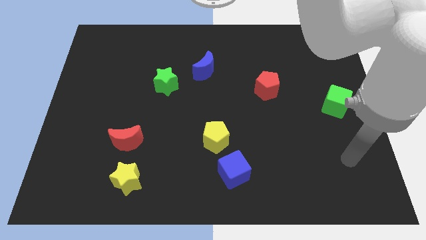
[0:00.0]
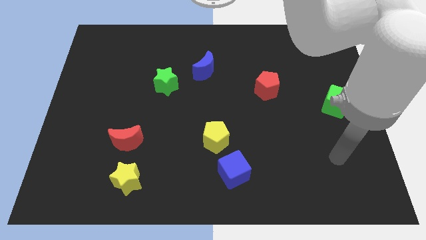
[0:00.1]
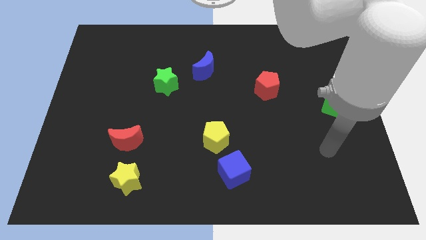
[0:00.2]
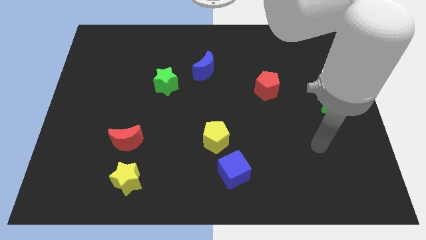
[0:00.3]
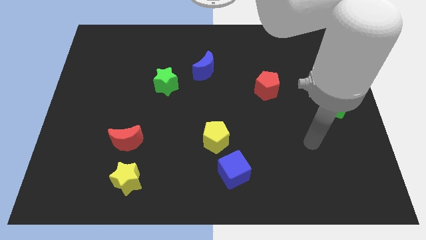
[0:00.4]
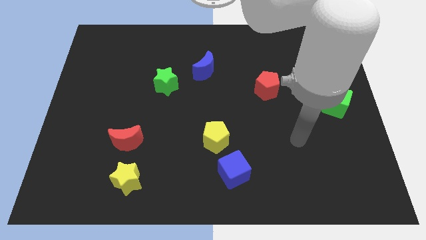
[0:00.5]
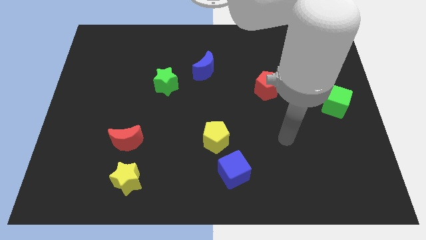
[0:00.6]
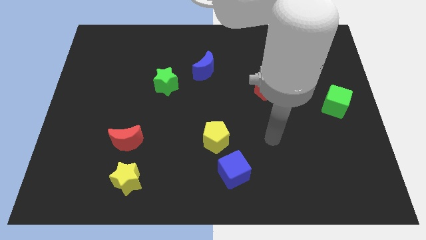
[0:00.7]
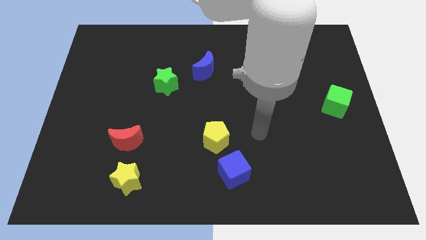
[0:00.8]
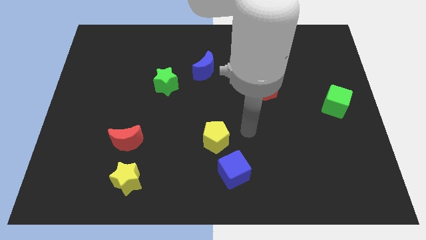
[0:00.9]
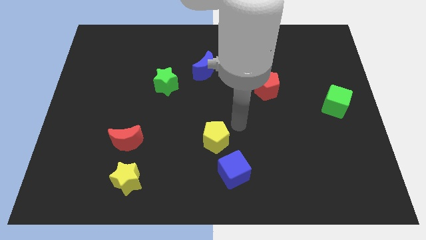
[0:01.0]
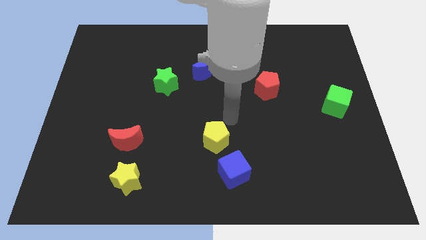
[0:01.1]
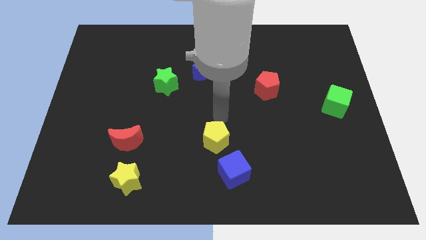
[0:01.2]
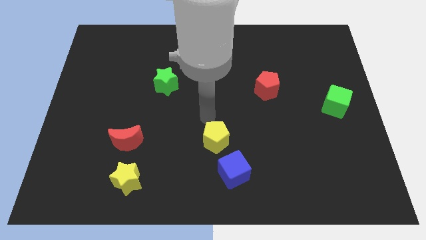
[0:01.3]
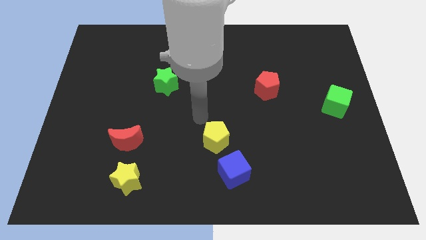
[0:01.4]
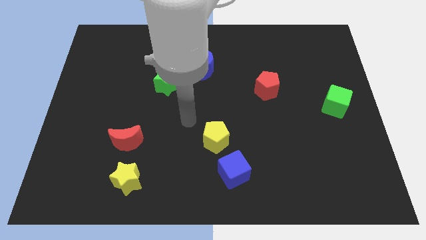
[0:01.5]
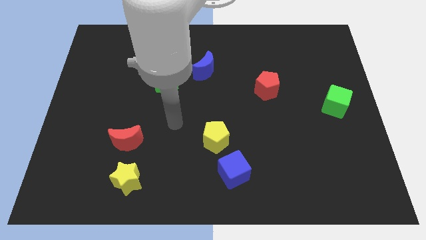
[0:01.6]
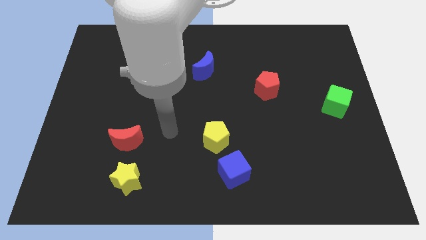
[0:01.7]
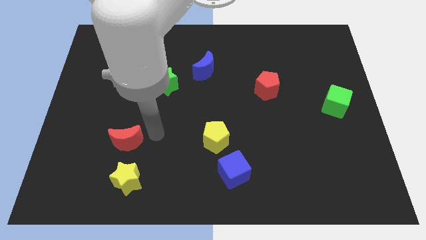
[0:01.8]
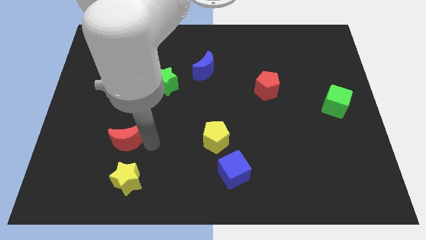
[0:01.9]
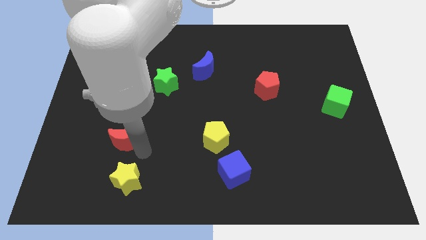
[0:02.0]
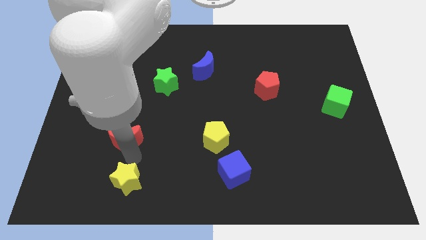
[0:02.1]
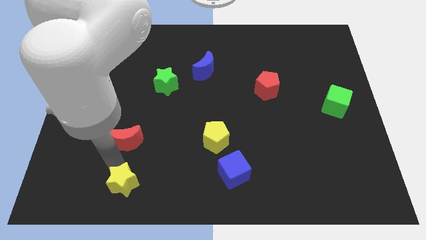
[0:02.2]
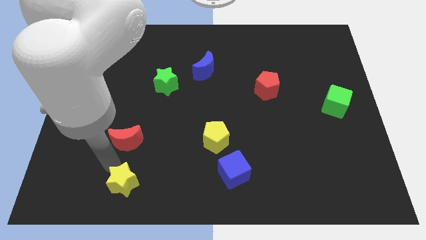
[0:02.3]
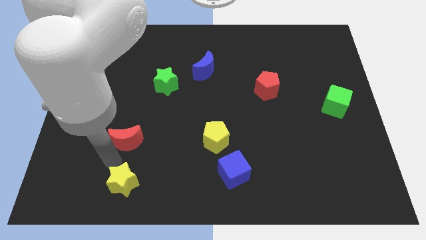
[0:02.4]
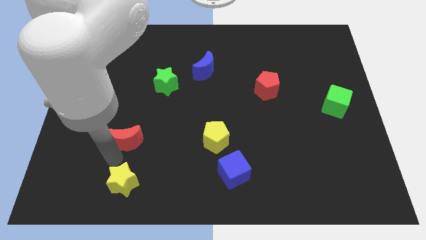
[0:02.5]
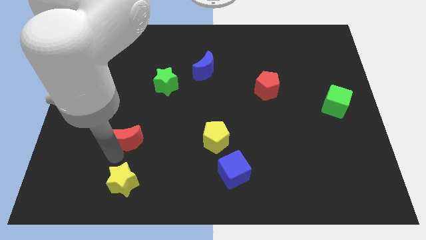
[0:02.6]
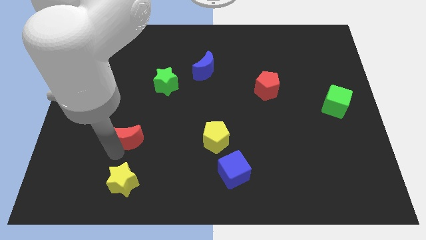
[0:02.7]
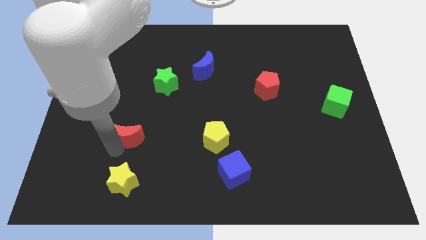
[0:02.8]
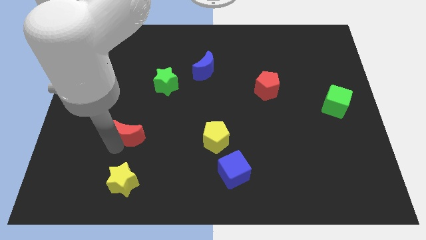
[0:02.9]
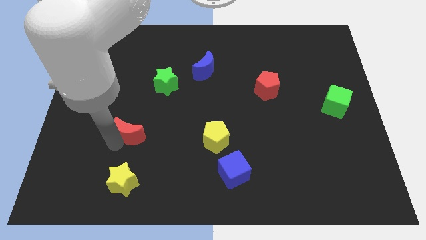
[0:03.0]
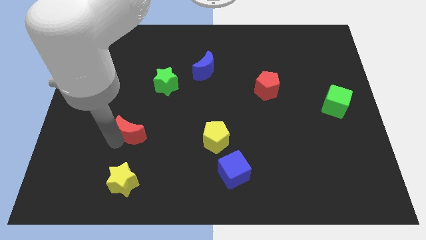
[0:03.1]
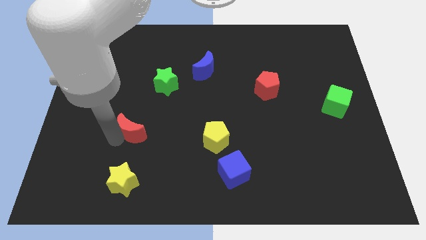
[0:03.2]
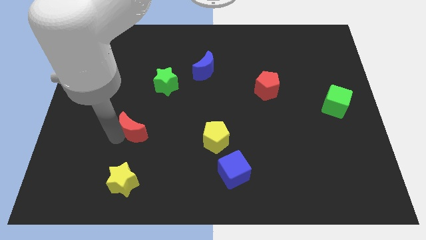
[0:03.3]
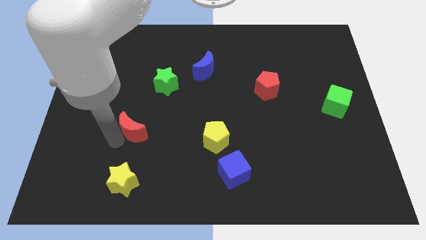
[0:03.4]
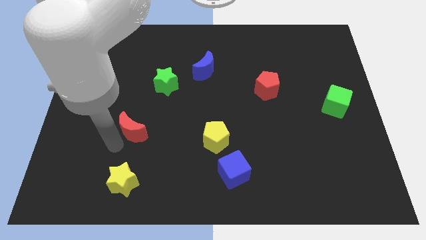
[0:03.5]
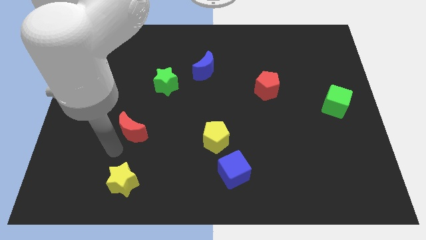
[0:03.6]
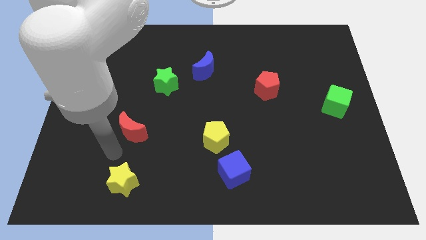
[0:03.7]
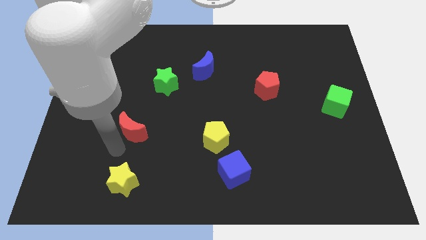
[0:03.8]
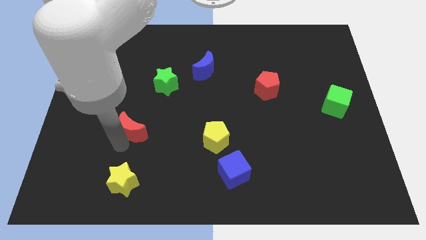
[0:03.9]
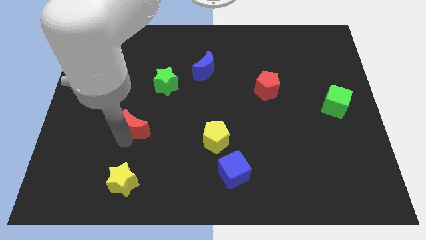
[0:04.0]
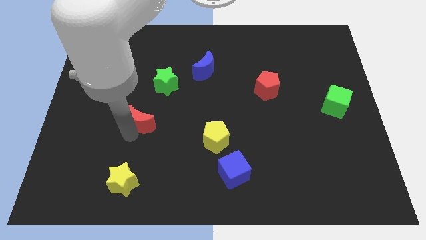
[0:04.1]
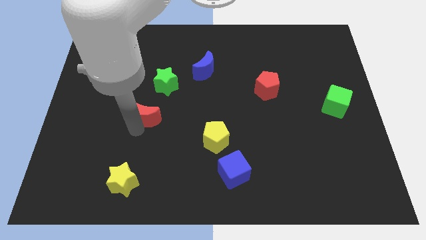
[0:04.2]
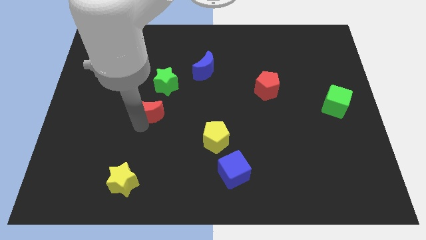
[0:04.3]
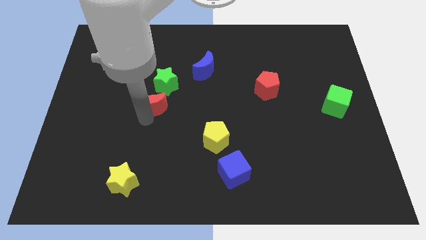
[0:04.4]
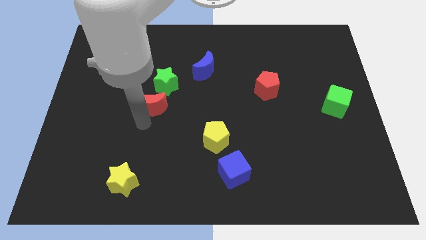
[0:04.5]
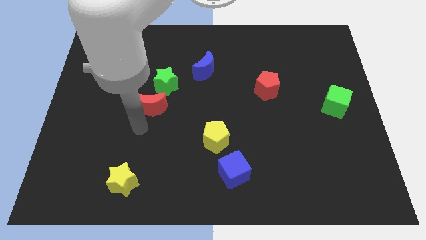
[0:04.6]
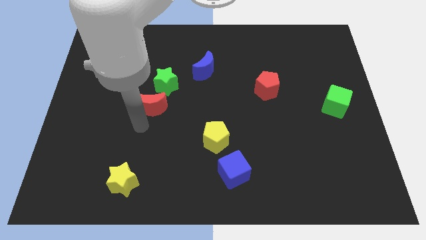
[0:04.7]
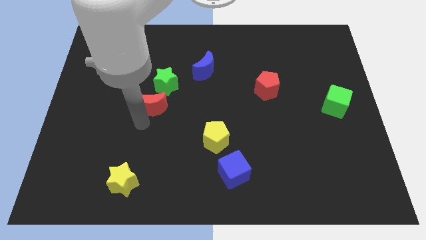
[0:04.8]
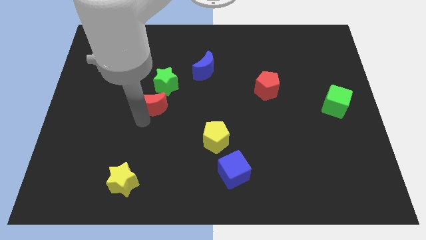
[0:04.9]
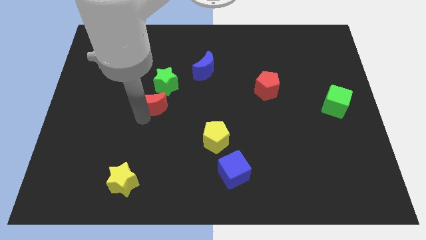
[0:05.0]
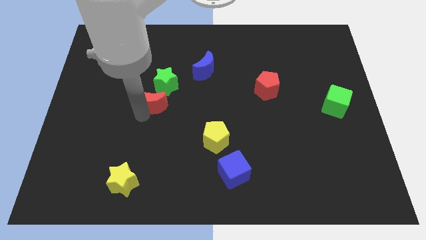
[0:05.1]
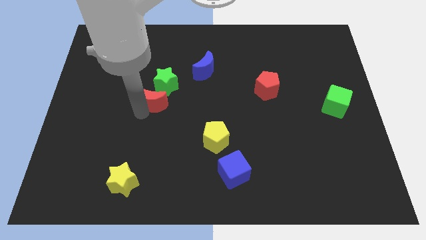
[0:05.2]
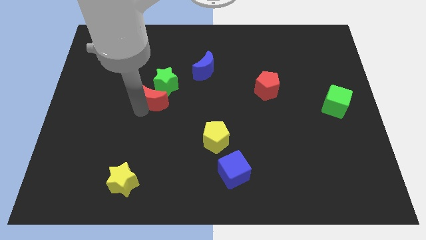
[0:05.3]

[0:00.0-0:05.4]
push the red moon close to the green star

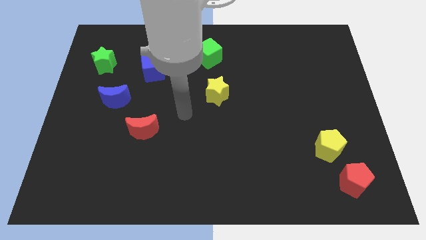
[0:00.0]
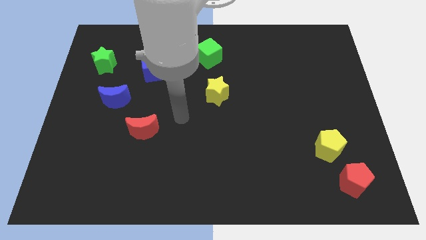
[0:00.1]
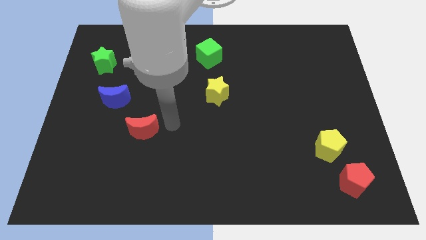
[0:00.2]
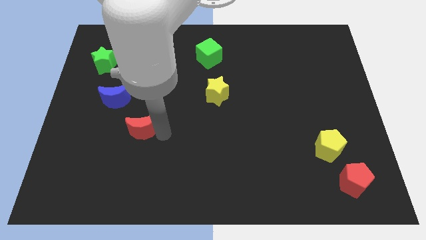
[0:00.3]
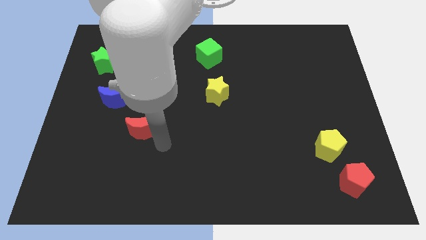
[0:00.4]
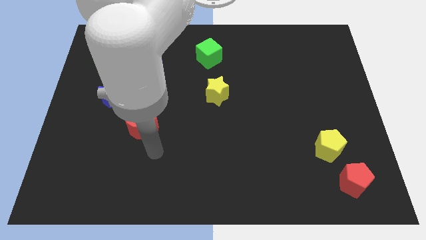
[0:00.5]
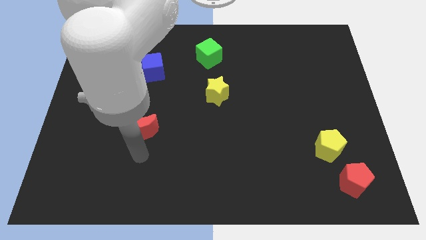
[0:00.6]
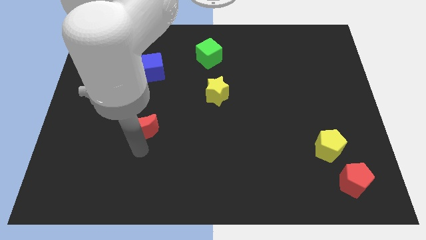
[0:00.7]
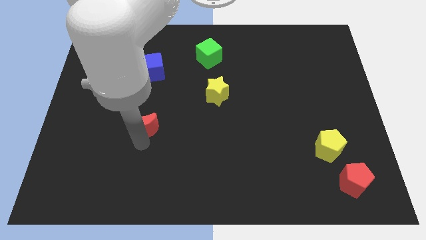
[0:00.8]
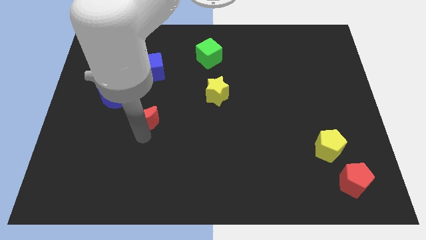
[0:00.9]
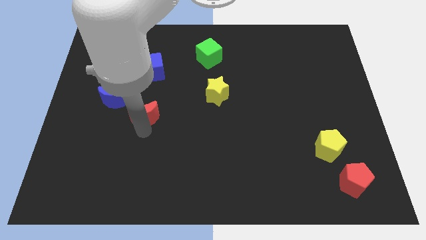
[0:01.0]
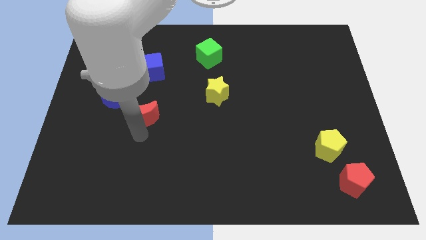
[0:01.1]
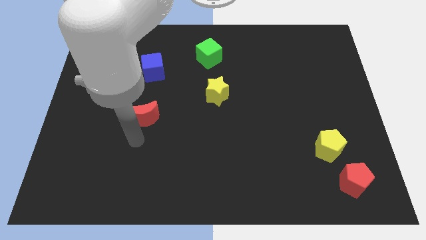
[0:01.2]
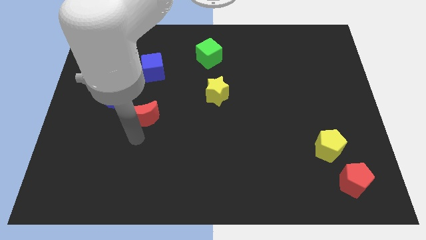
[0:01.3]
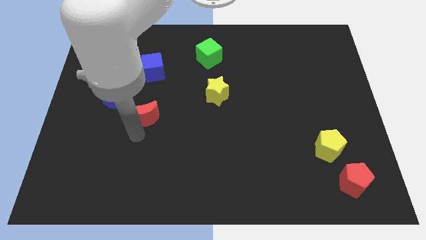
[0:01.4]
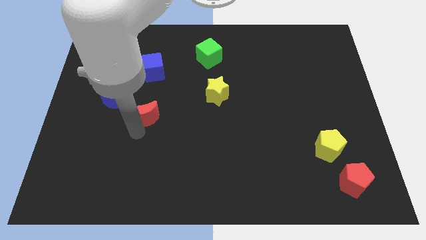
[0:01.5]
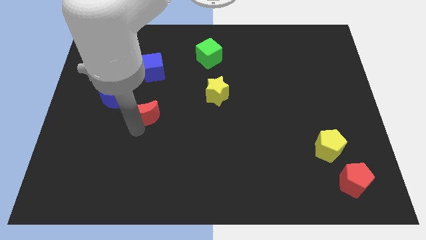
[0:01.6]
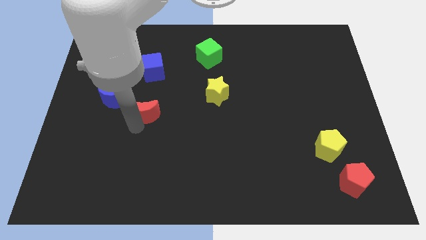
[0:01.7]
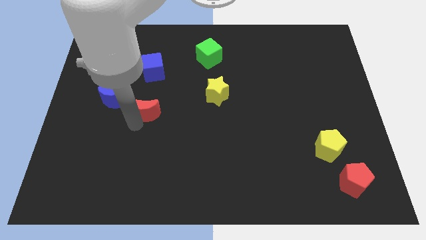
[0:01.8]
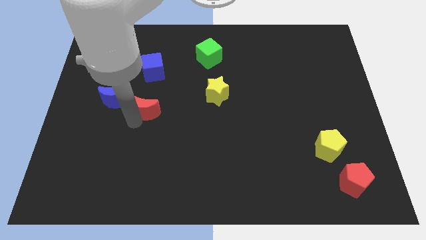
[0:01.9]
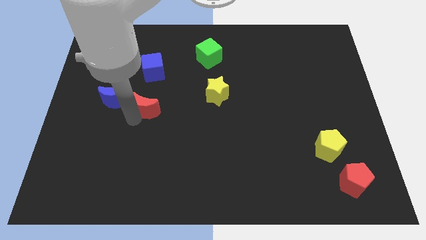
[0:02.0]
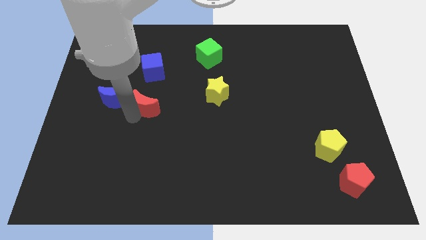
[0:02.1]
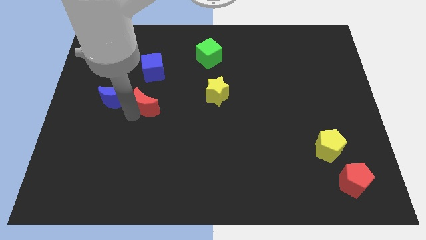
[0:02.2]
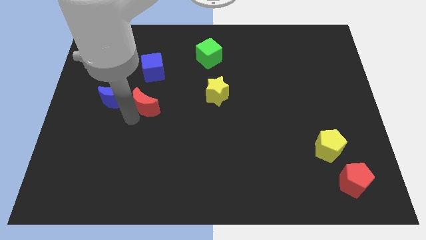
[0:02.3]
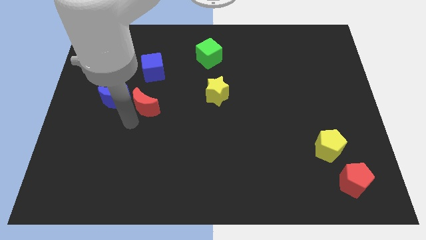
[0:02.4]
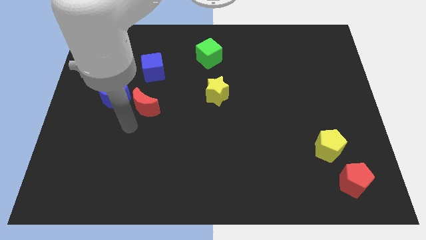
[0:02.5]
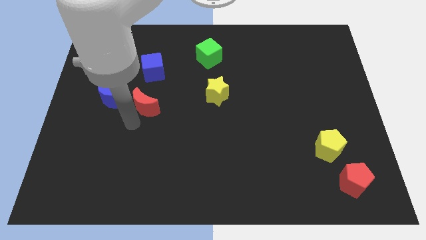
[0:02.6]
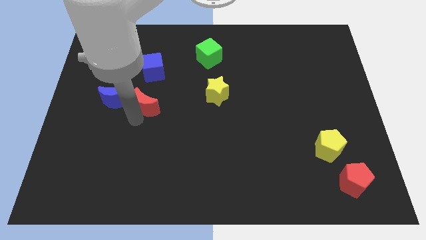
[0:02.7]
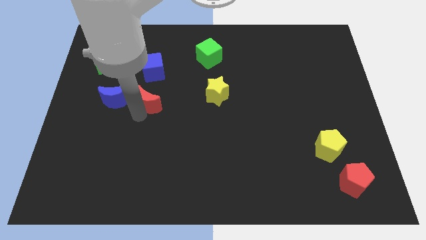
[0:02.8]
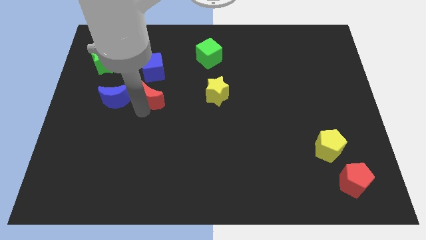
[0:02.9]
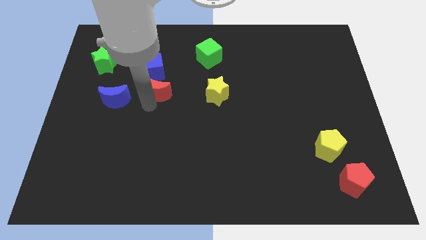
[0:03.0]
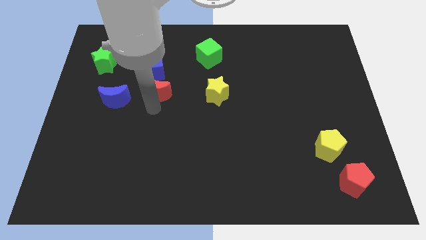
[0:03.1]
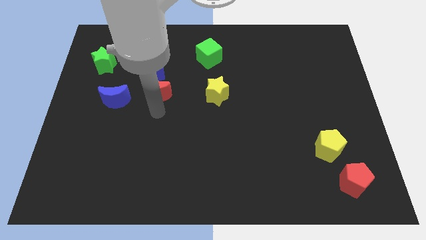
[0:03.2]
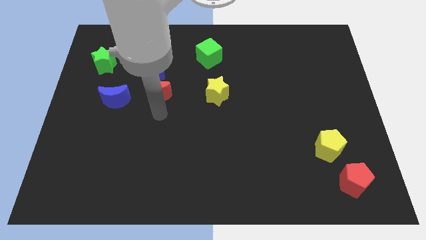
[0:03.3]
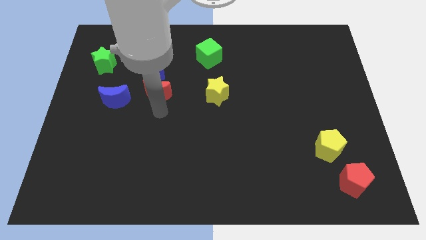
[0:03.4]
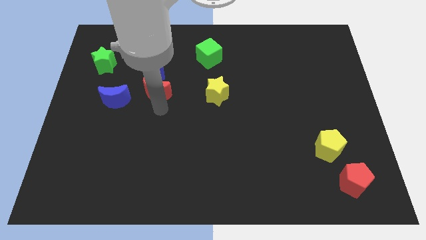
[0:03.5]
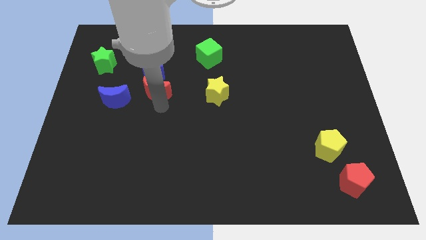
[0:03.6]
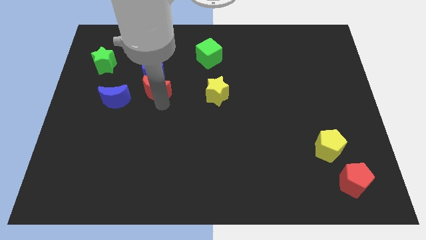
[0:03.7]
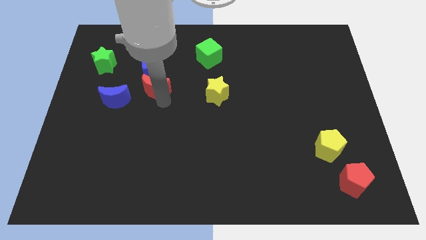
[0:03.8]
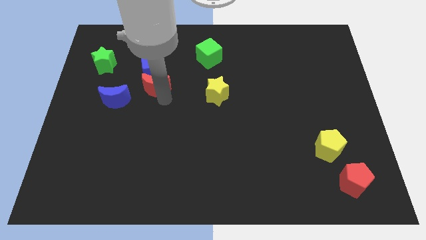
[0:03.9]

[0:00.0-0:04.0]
slide the red moon close to the blue cube
